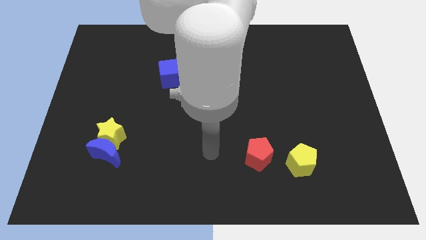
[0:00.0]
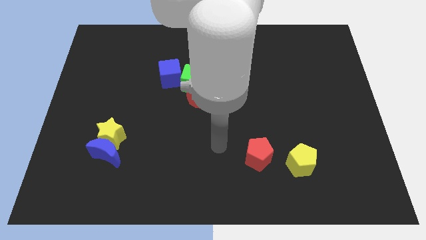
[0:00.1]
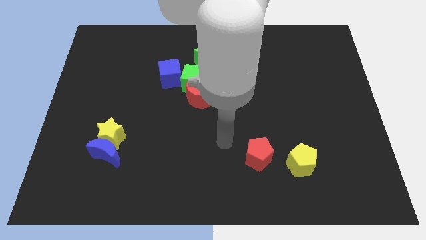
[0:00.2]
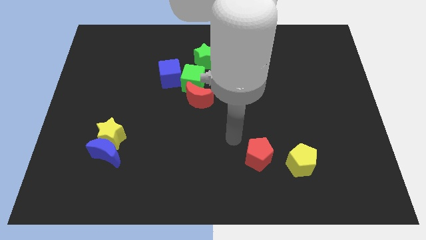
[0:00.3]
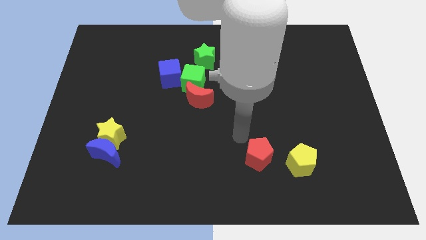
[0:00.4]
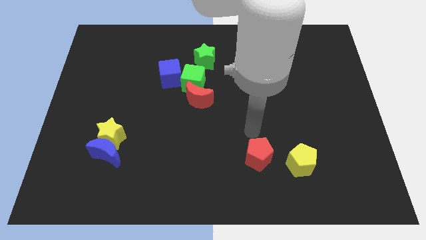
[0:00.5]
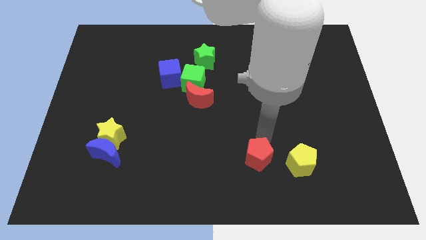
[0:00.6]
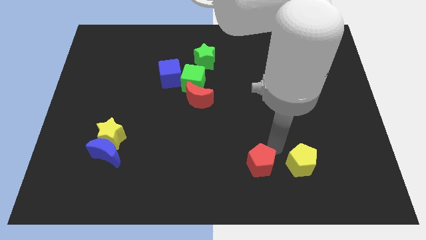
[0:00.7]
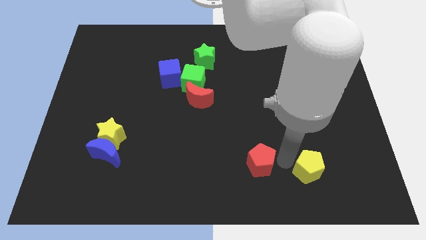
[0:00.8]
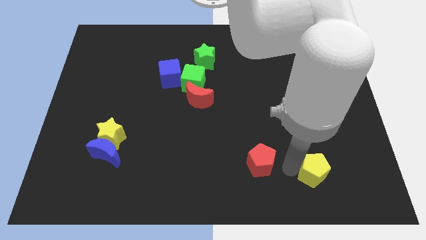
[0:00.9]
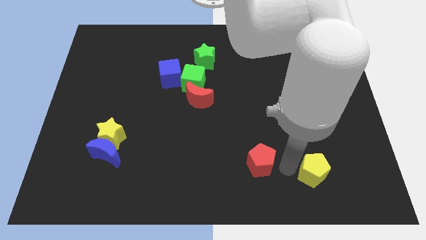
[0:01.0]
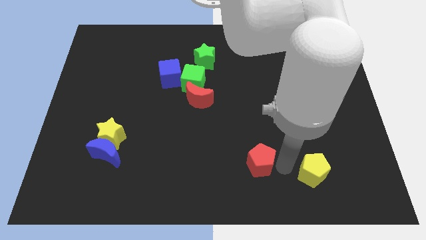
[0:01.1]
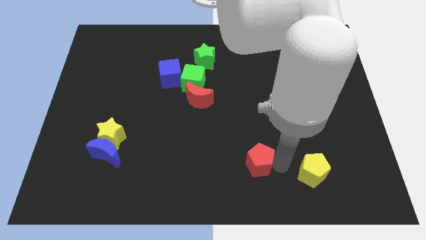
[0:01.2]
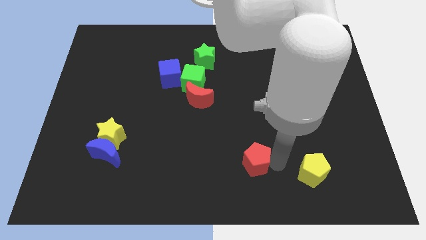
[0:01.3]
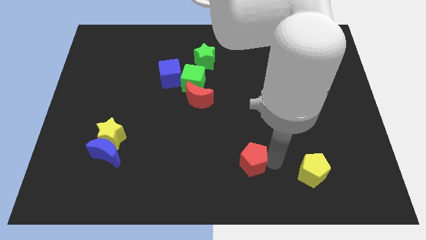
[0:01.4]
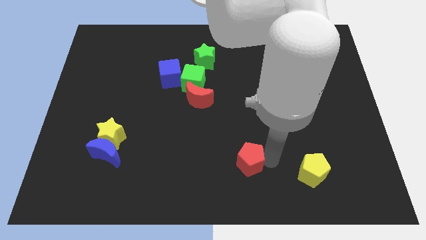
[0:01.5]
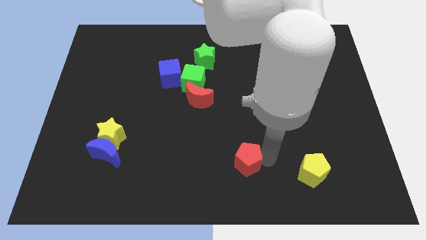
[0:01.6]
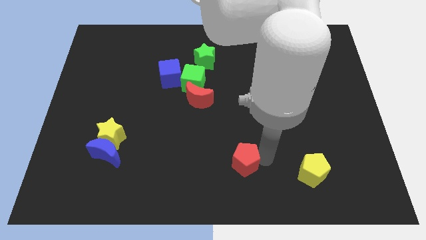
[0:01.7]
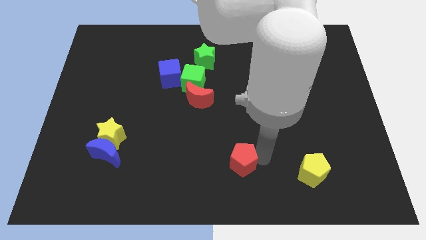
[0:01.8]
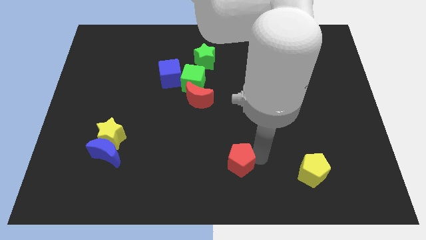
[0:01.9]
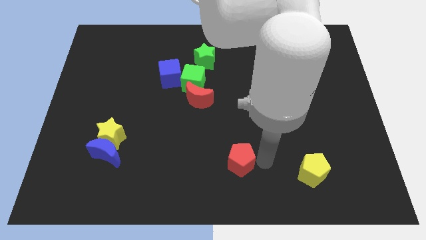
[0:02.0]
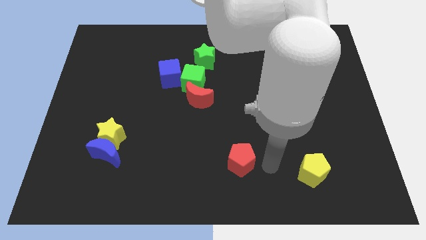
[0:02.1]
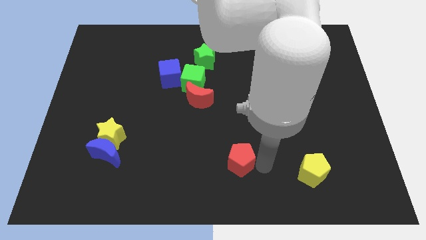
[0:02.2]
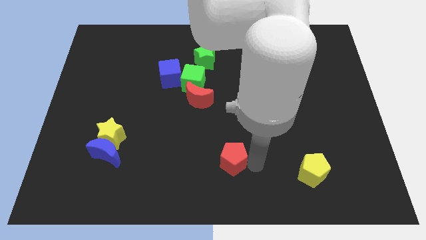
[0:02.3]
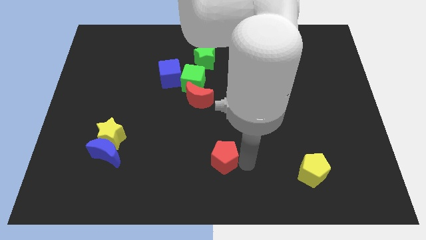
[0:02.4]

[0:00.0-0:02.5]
slightly move the red pentagon to the left

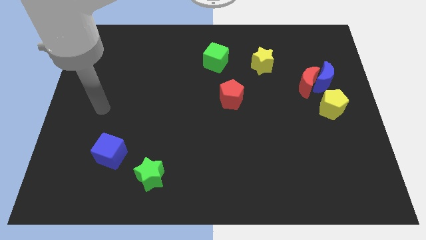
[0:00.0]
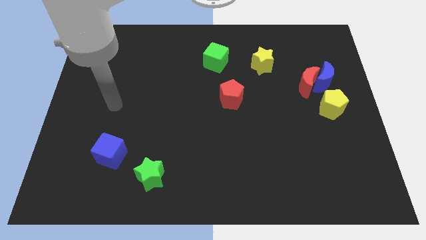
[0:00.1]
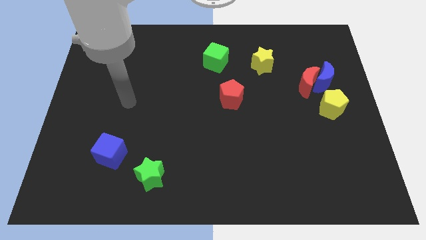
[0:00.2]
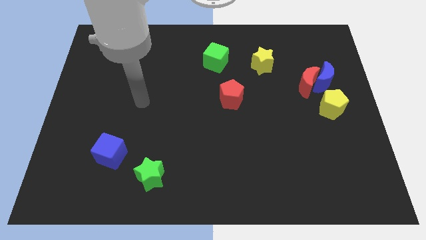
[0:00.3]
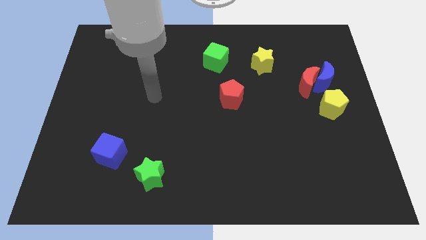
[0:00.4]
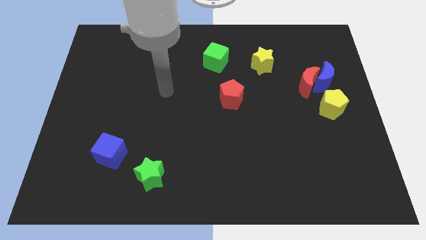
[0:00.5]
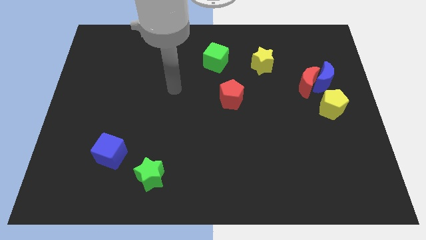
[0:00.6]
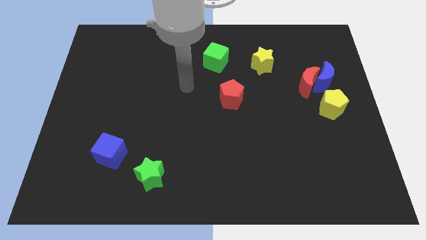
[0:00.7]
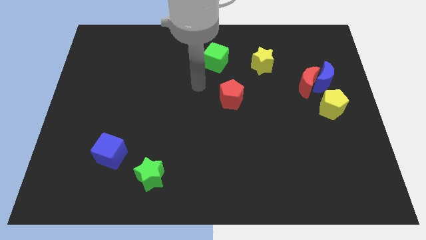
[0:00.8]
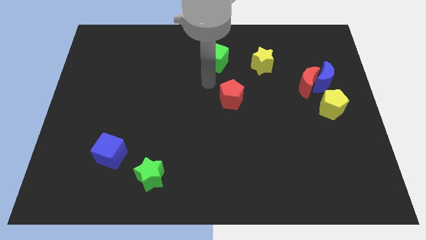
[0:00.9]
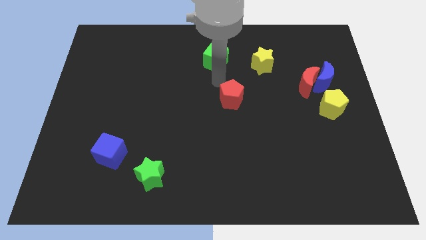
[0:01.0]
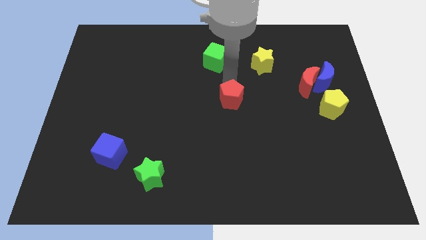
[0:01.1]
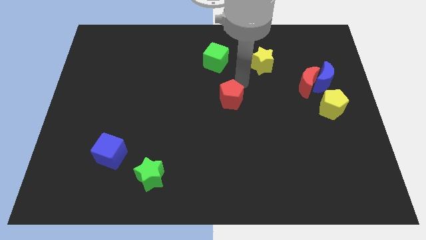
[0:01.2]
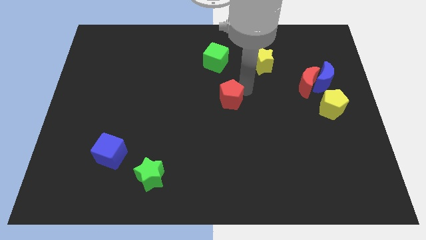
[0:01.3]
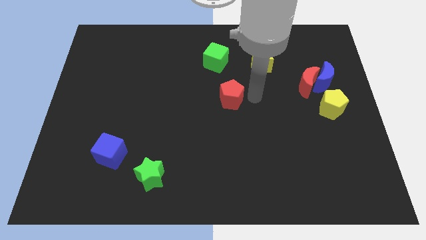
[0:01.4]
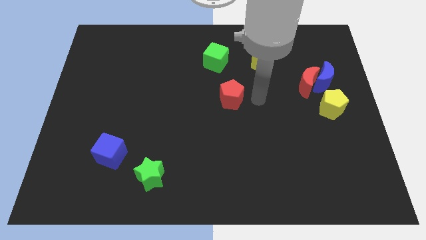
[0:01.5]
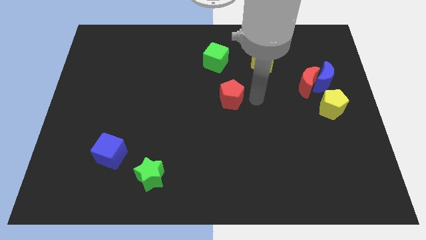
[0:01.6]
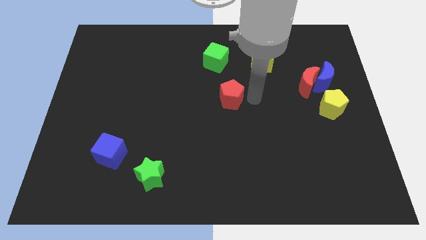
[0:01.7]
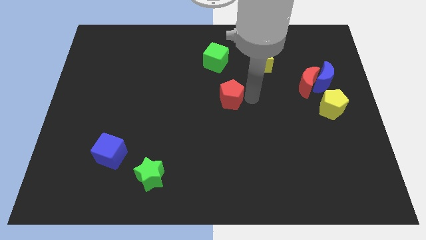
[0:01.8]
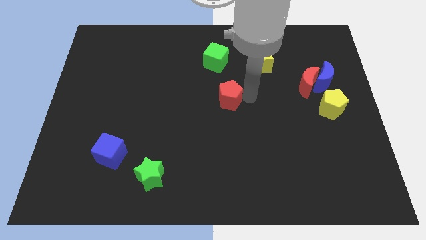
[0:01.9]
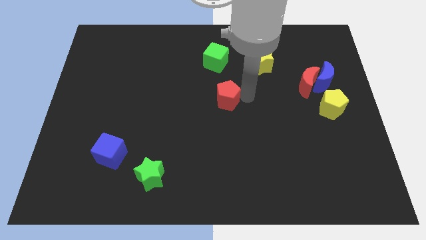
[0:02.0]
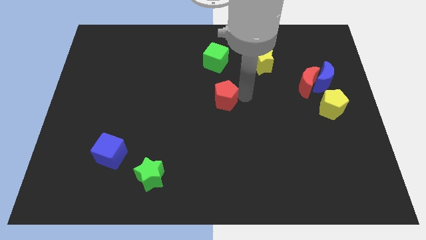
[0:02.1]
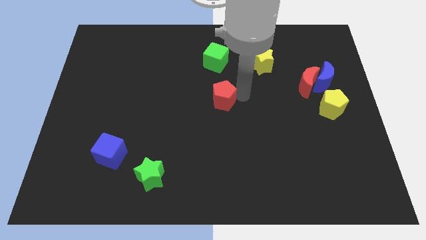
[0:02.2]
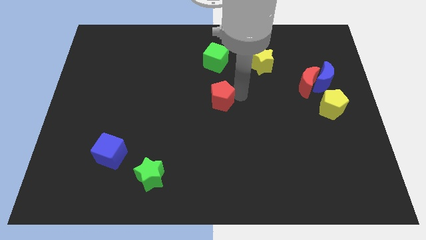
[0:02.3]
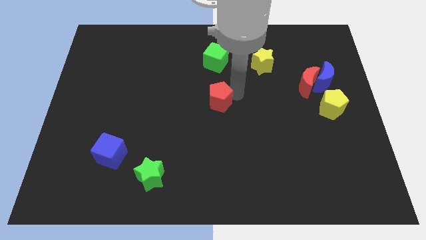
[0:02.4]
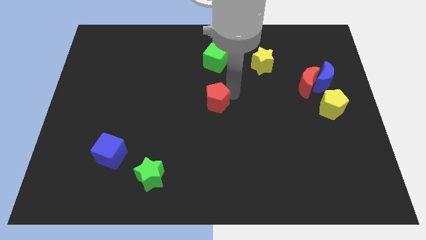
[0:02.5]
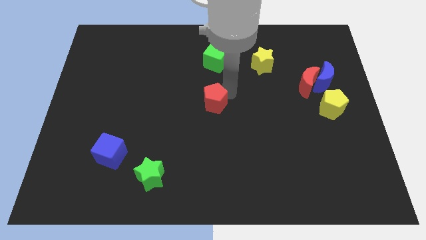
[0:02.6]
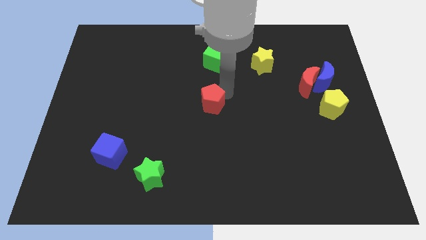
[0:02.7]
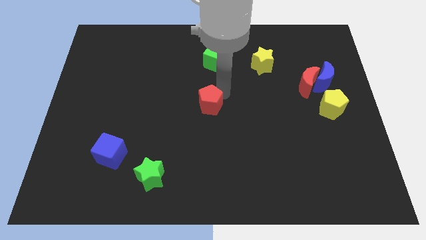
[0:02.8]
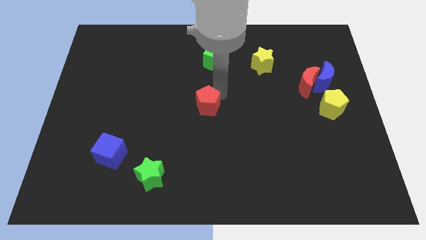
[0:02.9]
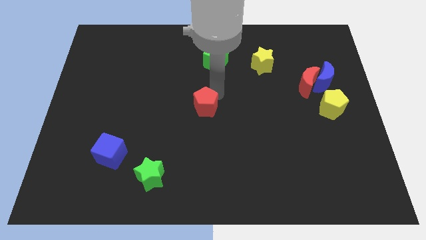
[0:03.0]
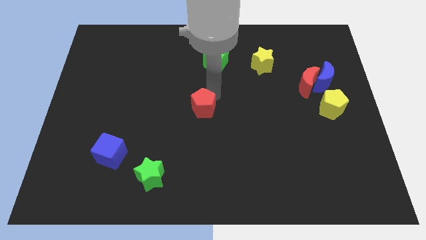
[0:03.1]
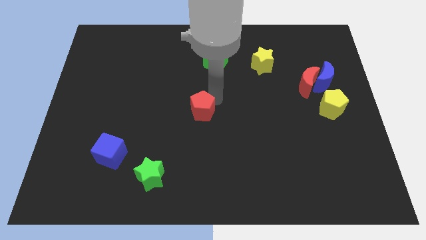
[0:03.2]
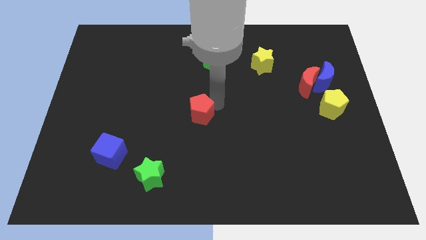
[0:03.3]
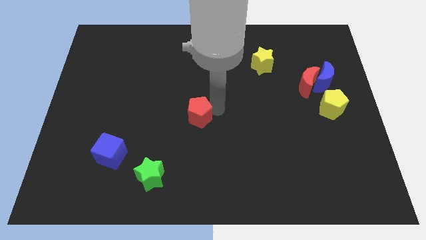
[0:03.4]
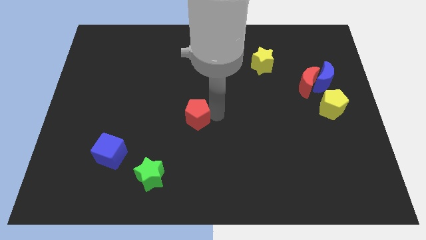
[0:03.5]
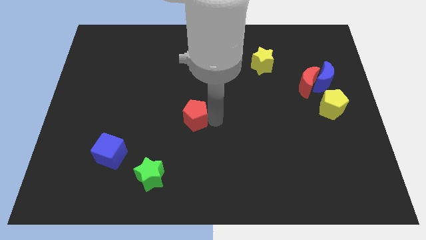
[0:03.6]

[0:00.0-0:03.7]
slightly slide the red pentagon left

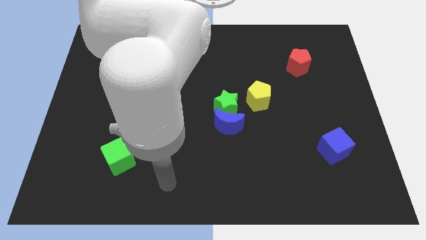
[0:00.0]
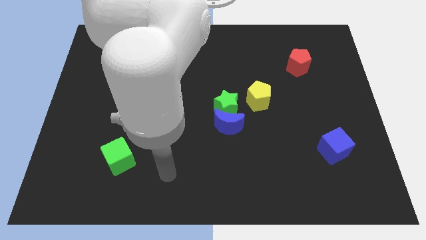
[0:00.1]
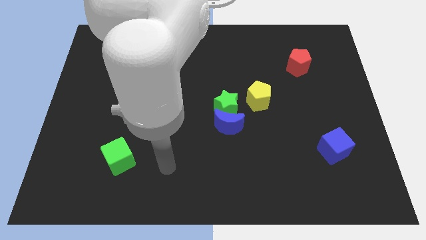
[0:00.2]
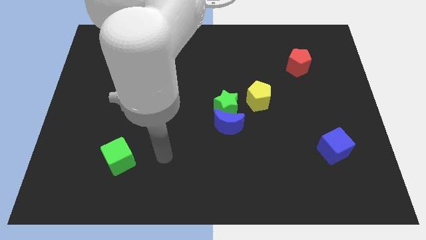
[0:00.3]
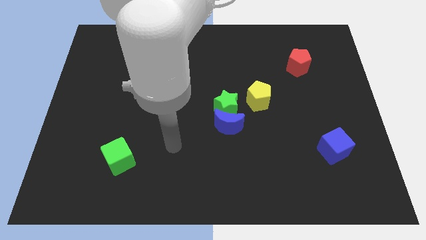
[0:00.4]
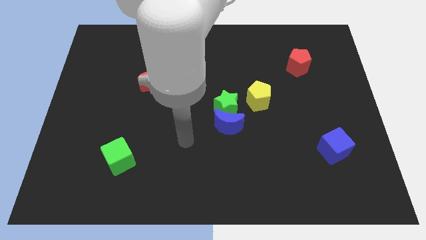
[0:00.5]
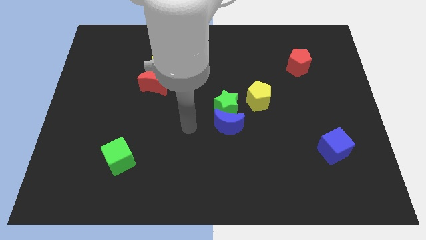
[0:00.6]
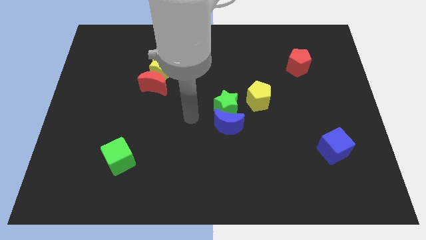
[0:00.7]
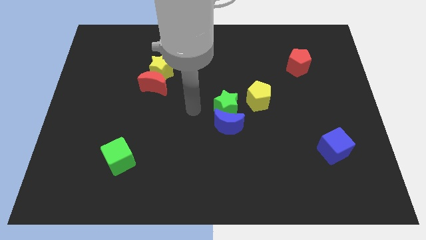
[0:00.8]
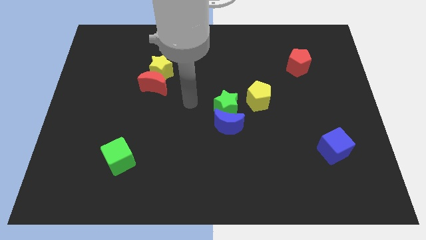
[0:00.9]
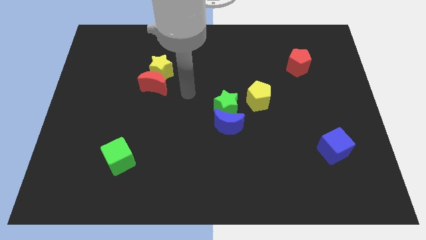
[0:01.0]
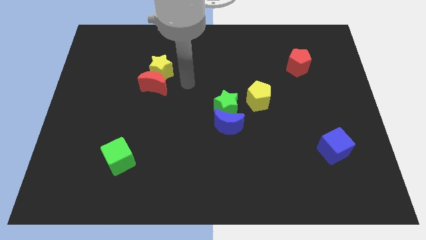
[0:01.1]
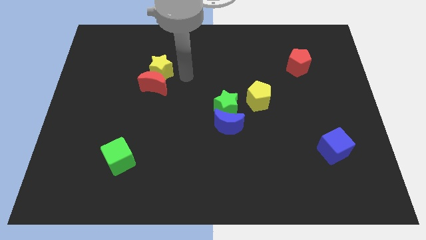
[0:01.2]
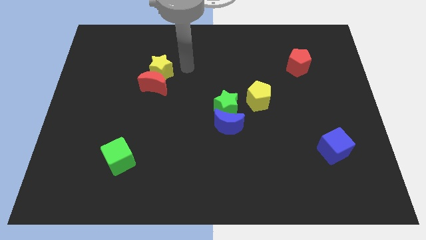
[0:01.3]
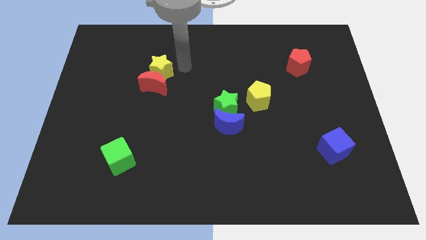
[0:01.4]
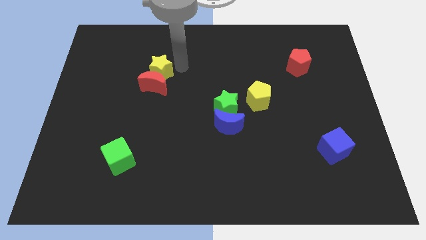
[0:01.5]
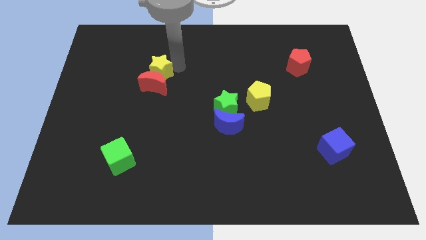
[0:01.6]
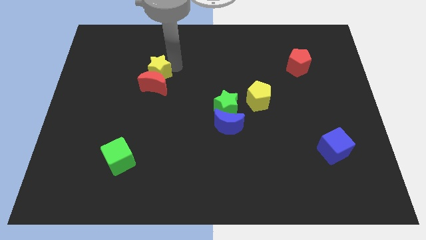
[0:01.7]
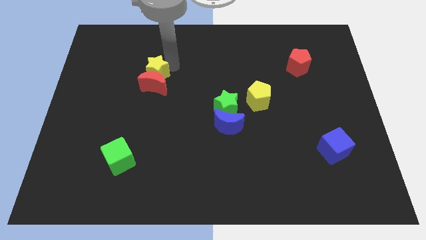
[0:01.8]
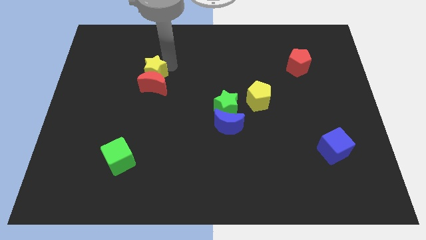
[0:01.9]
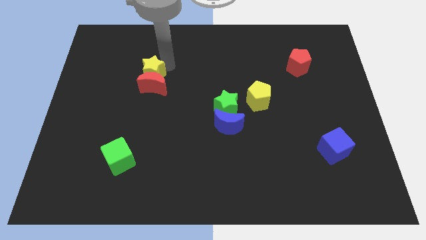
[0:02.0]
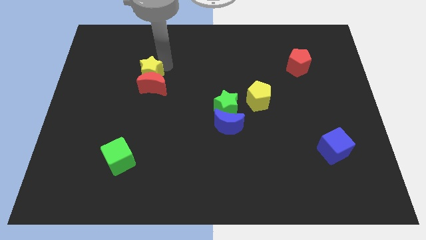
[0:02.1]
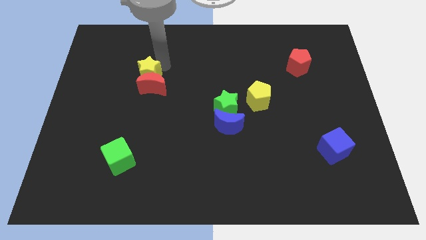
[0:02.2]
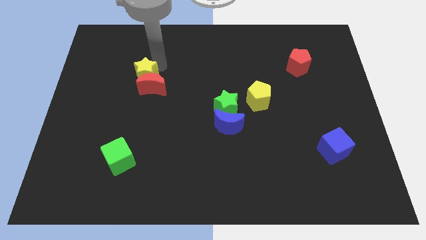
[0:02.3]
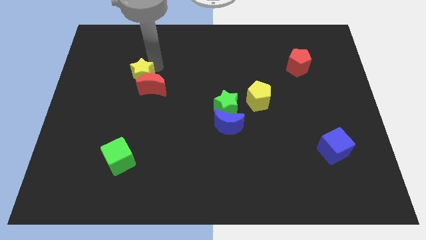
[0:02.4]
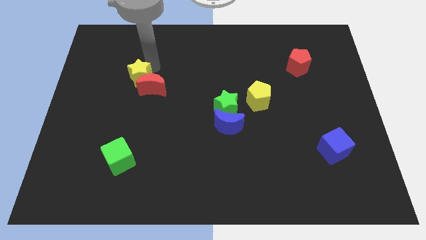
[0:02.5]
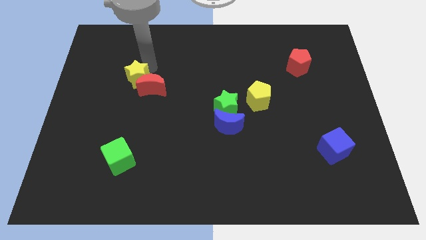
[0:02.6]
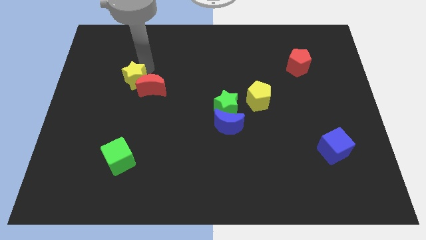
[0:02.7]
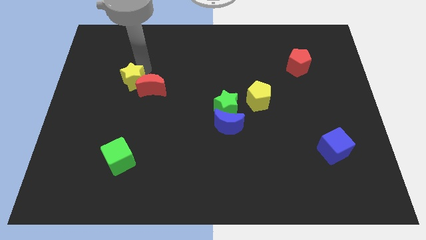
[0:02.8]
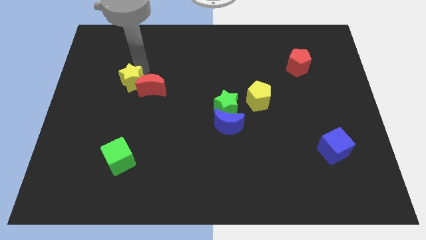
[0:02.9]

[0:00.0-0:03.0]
push the yellow star a bit down and then left
